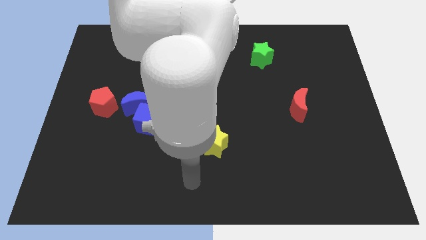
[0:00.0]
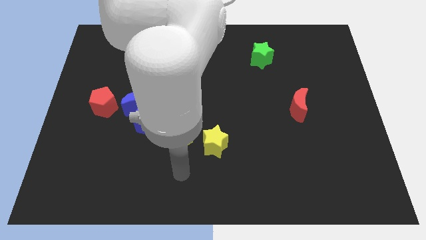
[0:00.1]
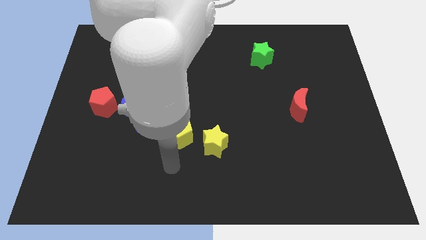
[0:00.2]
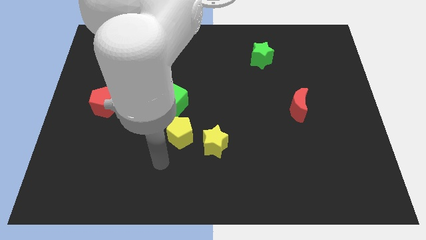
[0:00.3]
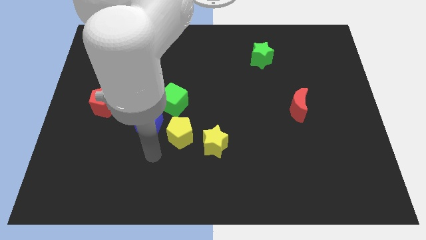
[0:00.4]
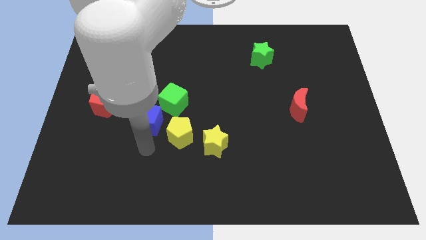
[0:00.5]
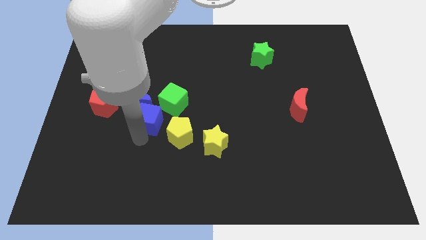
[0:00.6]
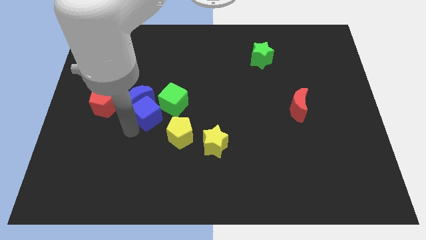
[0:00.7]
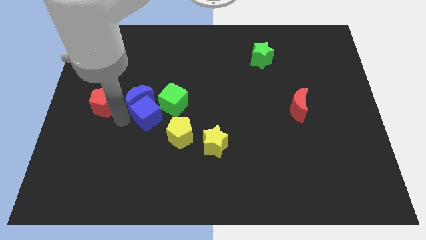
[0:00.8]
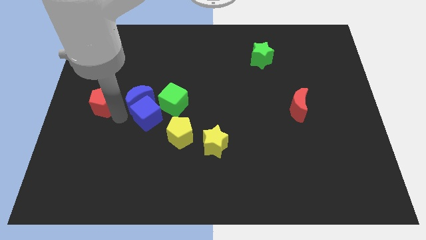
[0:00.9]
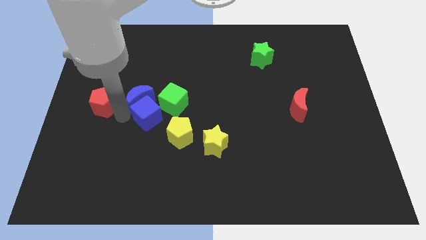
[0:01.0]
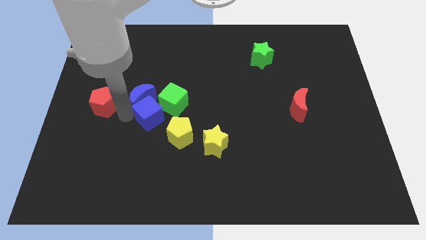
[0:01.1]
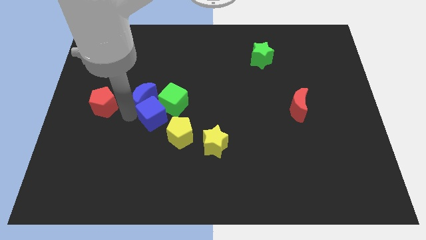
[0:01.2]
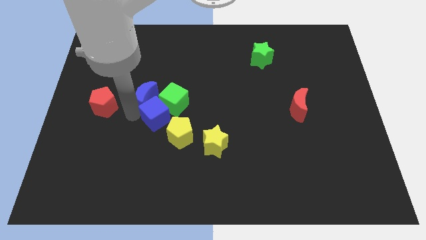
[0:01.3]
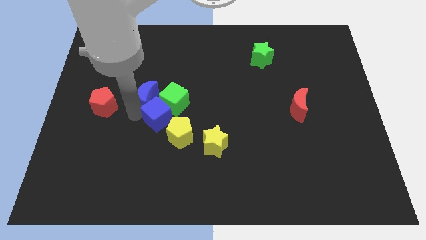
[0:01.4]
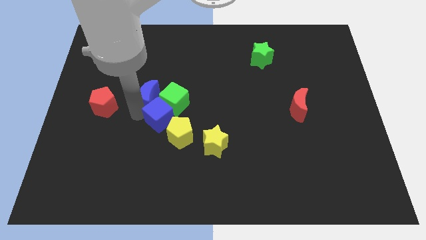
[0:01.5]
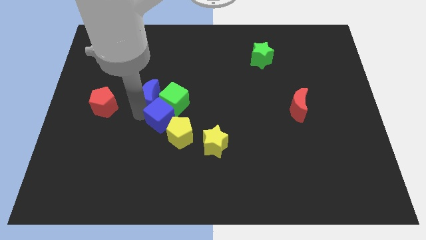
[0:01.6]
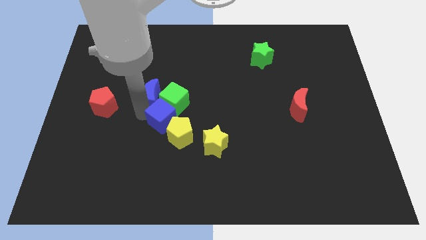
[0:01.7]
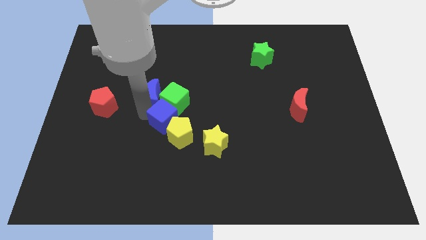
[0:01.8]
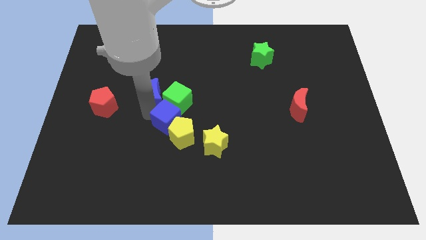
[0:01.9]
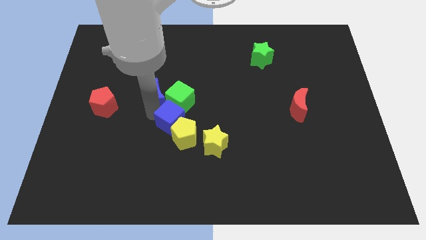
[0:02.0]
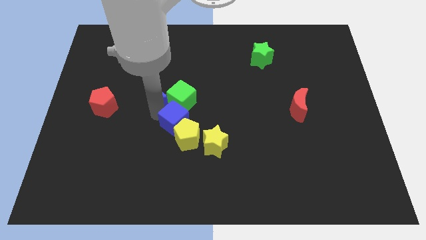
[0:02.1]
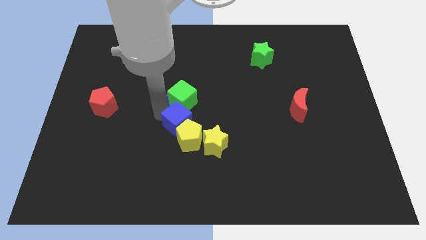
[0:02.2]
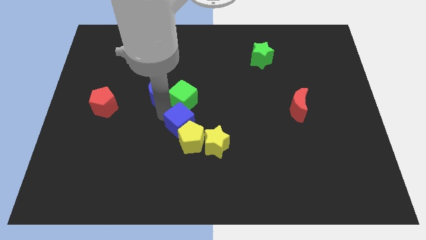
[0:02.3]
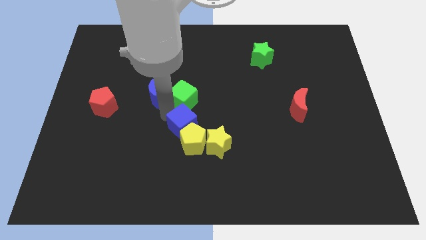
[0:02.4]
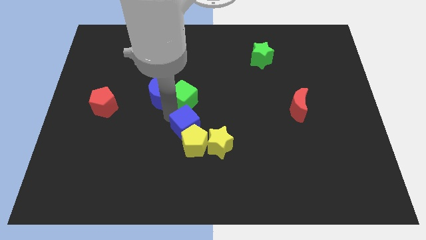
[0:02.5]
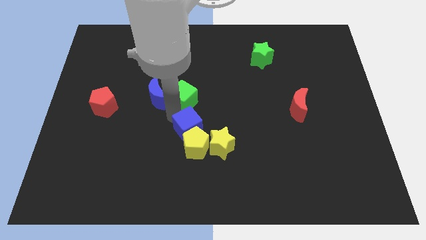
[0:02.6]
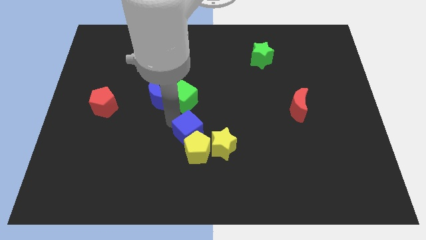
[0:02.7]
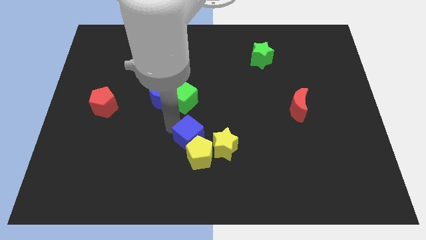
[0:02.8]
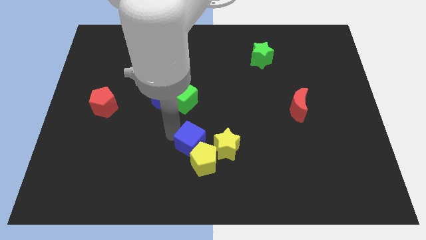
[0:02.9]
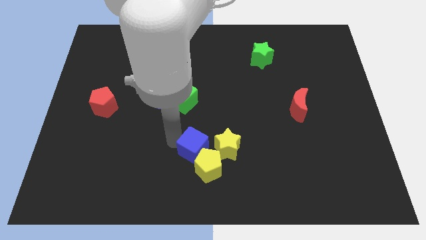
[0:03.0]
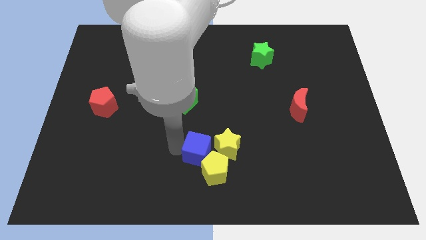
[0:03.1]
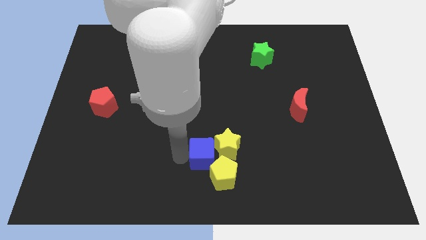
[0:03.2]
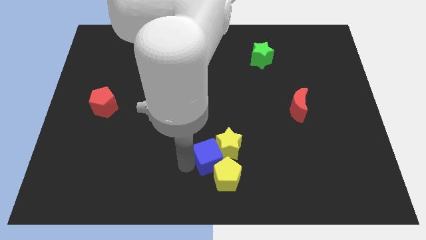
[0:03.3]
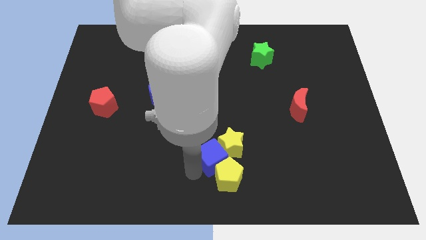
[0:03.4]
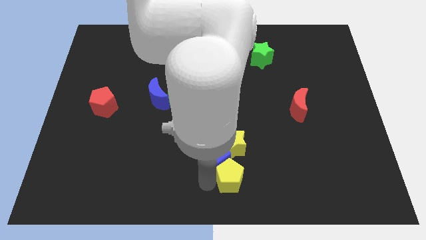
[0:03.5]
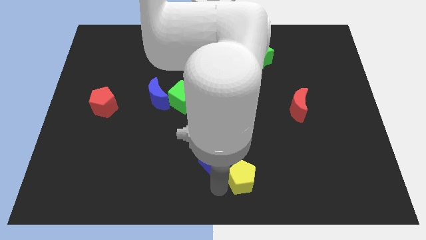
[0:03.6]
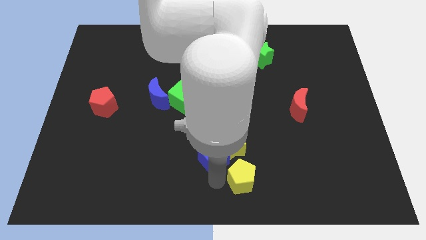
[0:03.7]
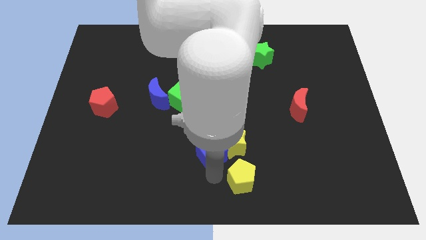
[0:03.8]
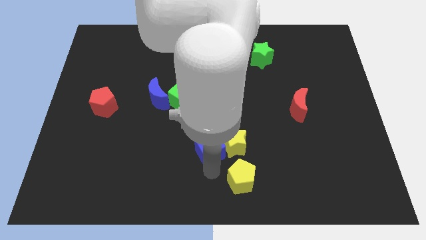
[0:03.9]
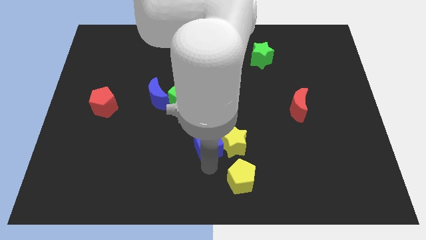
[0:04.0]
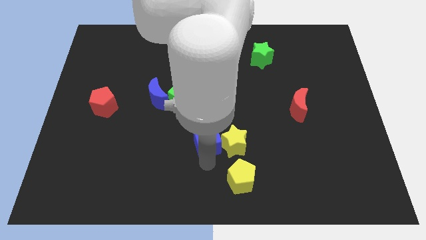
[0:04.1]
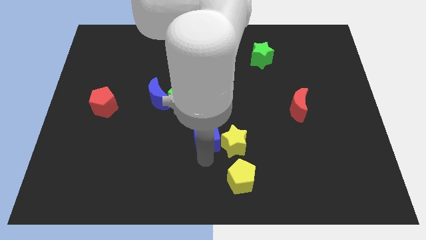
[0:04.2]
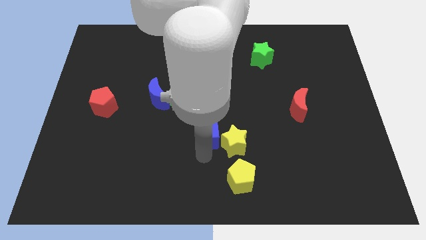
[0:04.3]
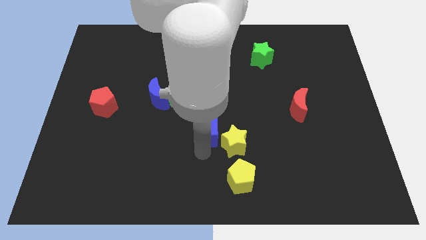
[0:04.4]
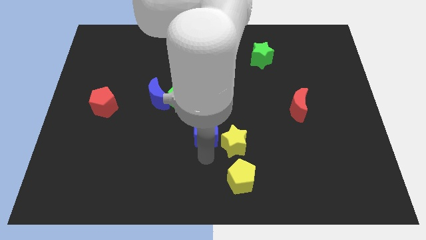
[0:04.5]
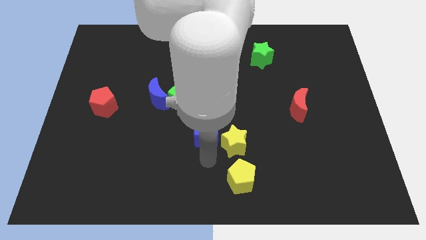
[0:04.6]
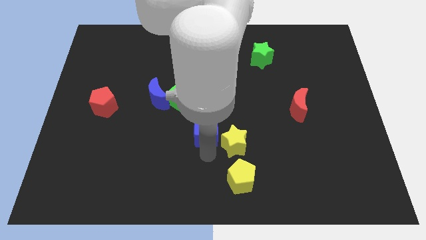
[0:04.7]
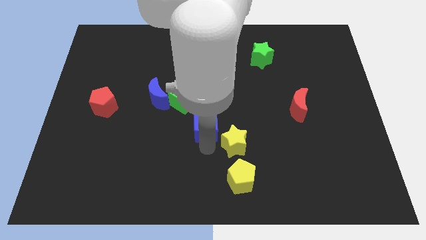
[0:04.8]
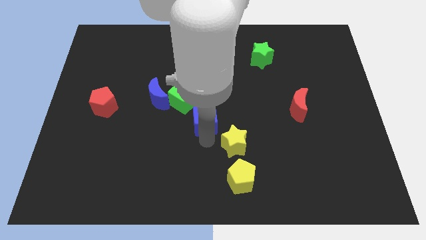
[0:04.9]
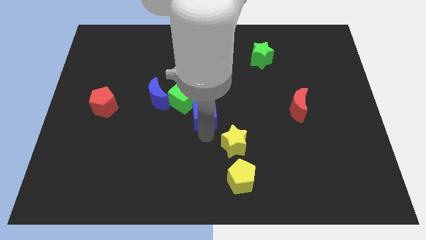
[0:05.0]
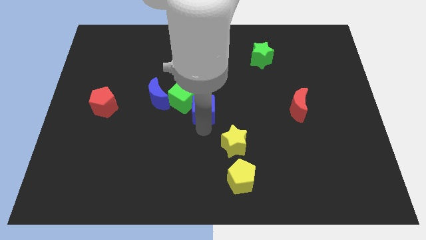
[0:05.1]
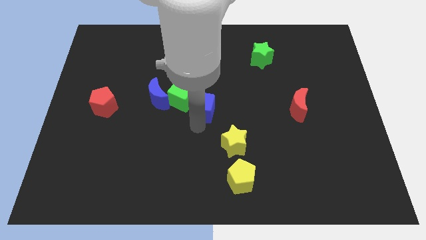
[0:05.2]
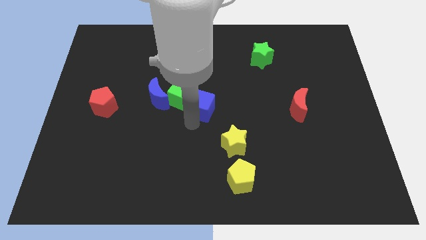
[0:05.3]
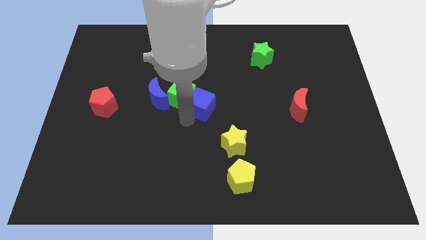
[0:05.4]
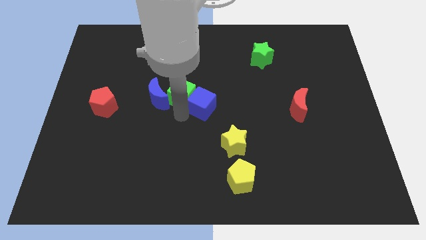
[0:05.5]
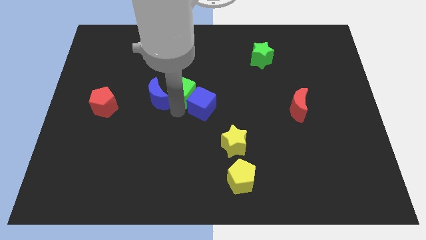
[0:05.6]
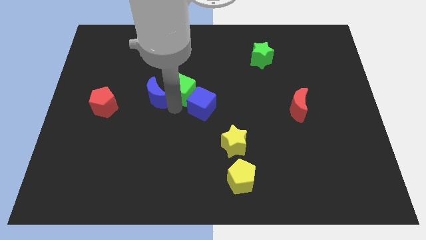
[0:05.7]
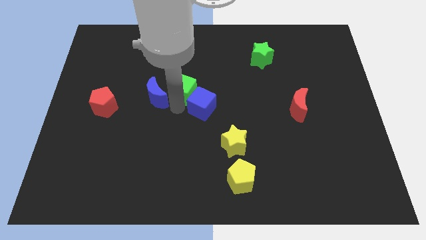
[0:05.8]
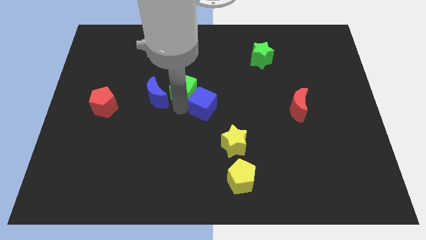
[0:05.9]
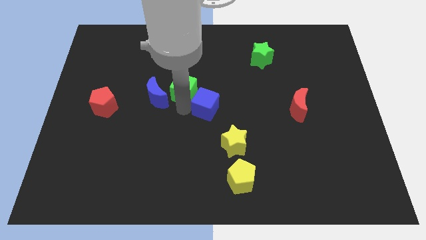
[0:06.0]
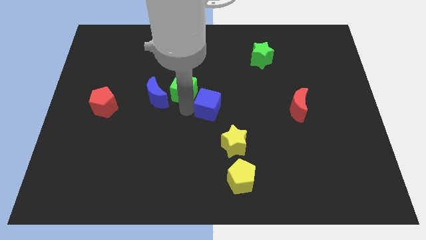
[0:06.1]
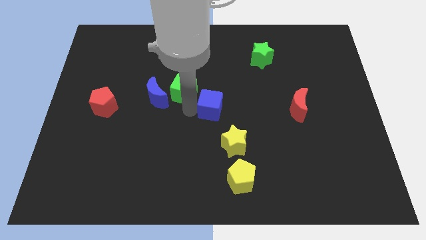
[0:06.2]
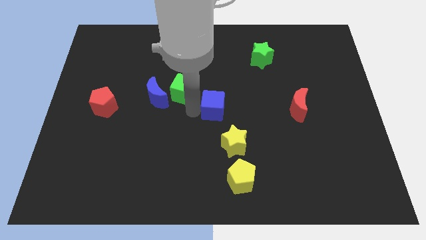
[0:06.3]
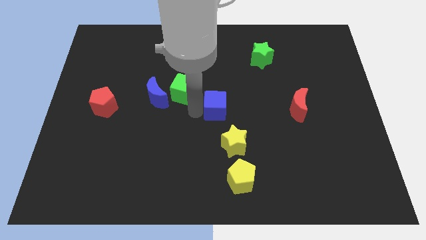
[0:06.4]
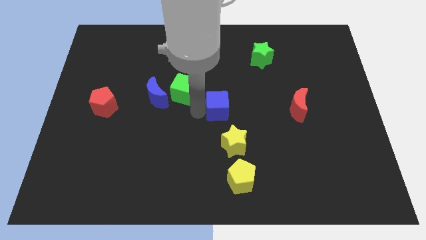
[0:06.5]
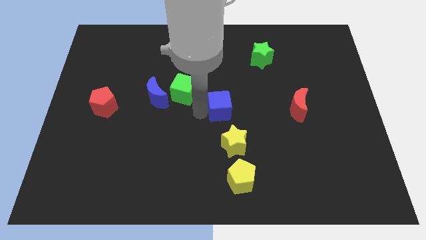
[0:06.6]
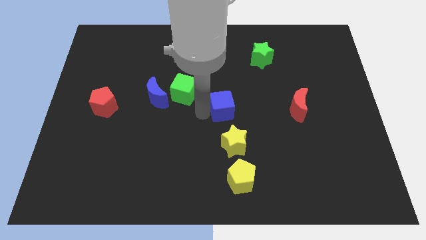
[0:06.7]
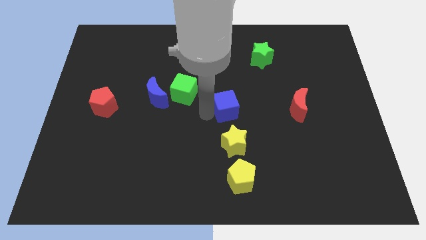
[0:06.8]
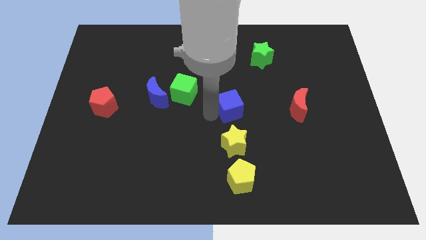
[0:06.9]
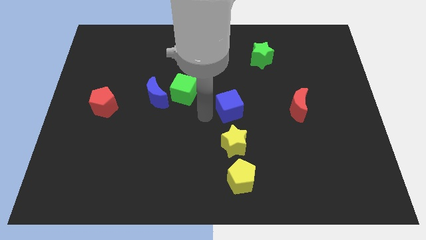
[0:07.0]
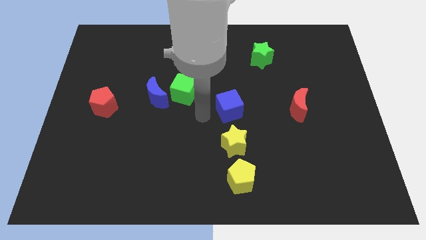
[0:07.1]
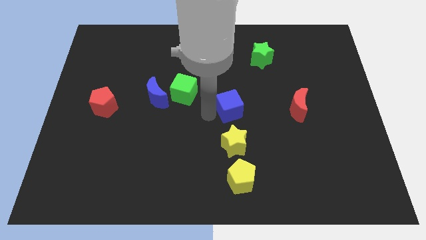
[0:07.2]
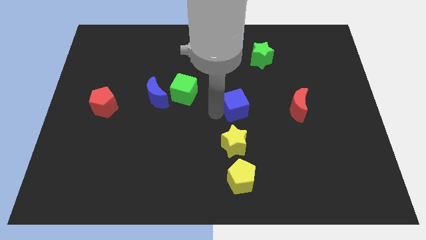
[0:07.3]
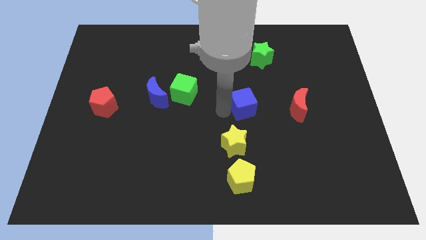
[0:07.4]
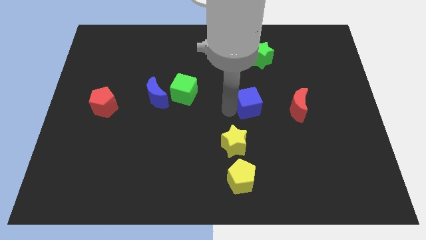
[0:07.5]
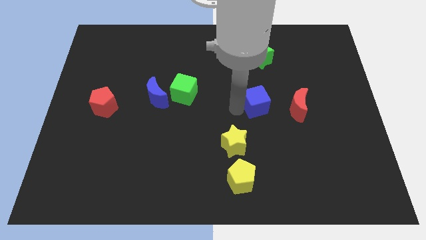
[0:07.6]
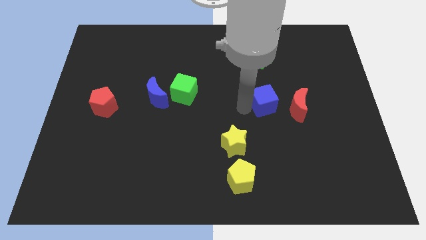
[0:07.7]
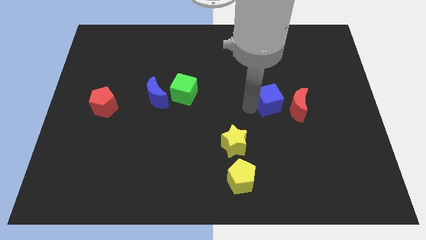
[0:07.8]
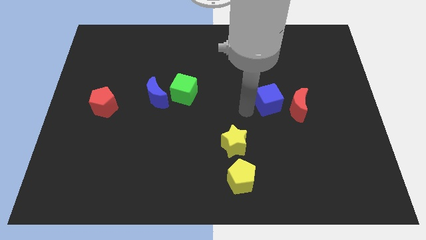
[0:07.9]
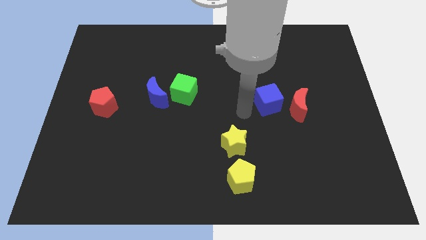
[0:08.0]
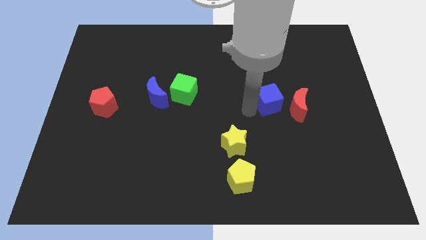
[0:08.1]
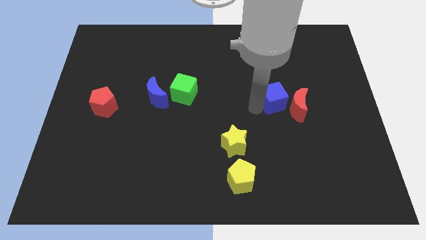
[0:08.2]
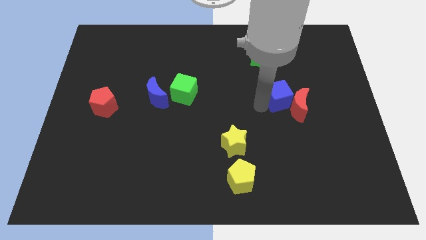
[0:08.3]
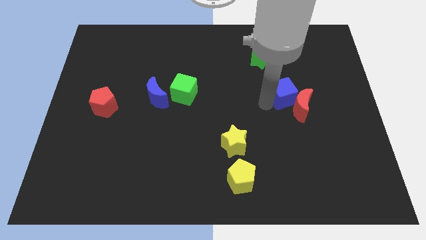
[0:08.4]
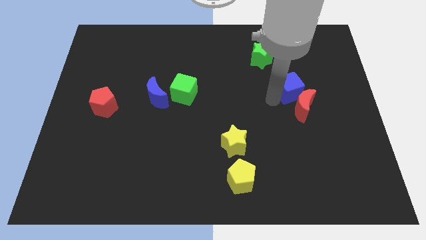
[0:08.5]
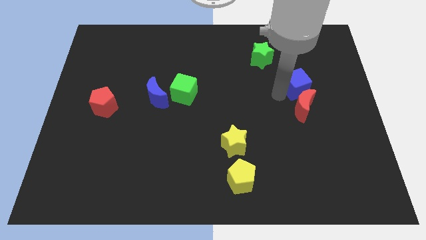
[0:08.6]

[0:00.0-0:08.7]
put the blue cube to the top right of the red moon
